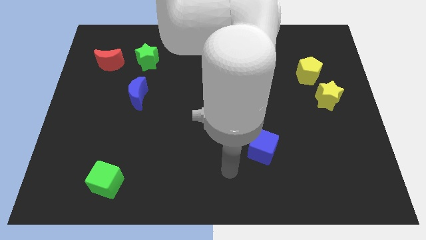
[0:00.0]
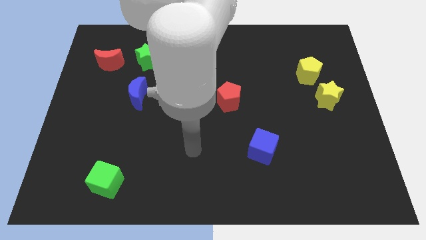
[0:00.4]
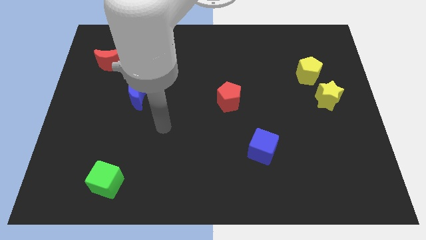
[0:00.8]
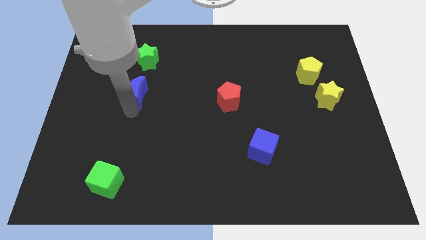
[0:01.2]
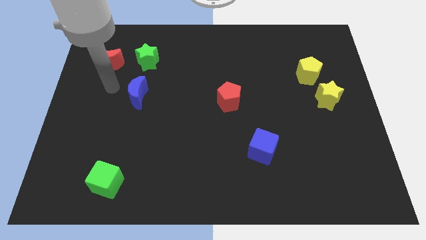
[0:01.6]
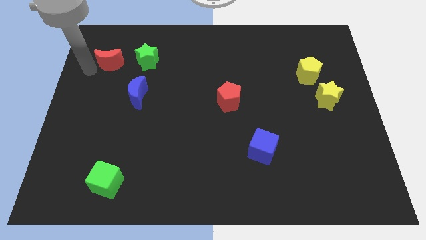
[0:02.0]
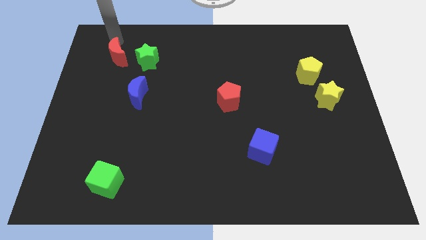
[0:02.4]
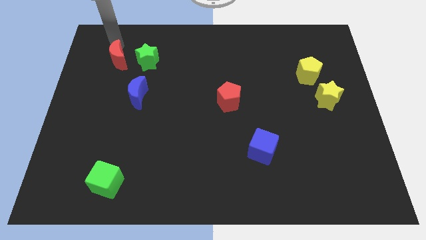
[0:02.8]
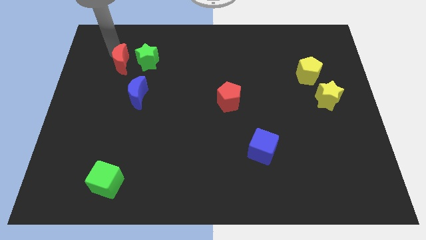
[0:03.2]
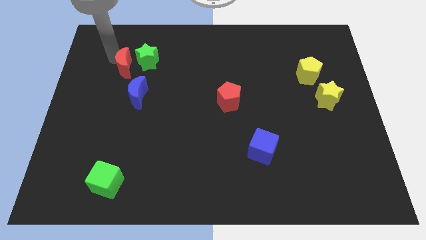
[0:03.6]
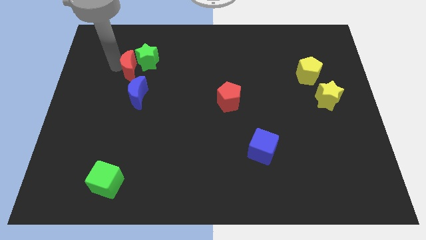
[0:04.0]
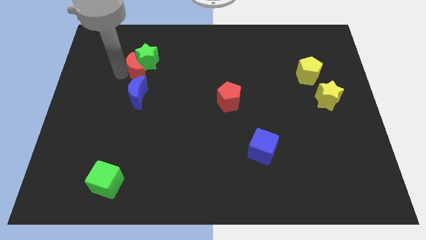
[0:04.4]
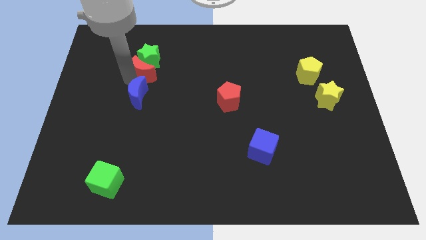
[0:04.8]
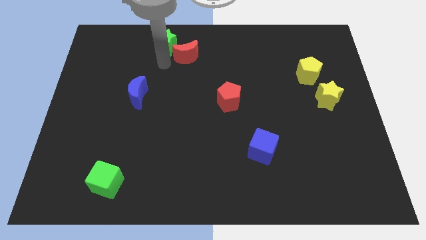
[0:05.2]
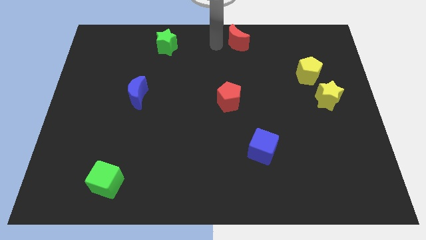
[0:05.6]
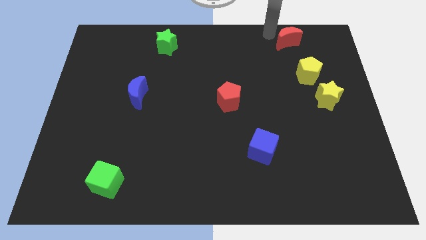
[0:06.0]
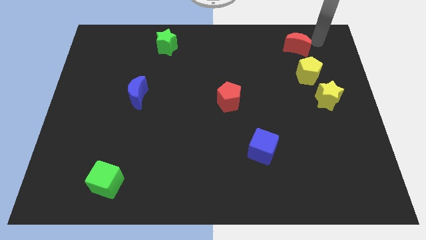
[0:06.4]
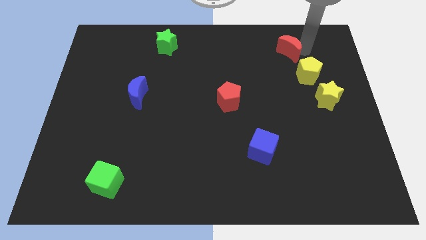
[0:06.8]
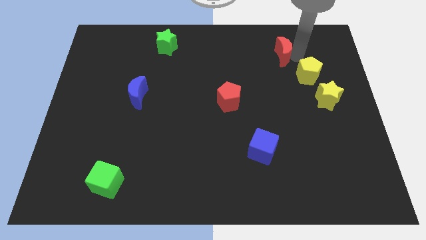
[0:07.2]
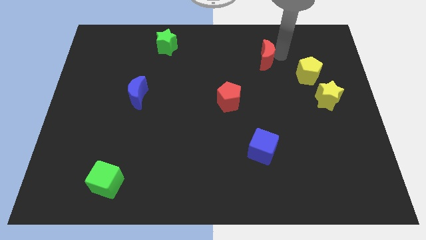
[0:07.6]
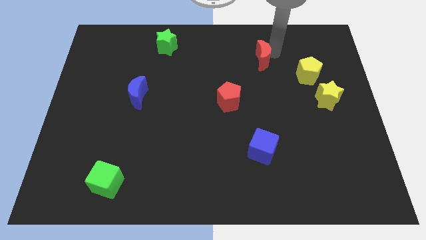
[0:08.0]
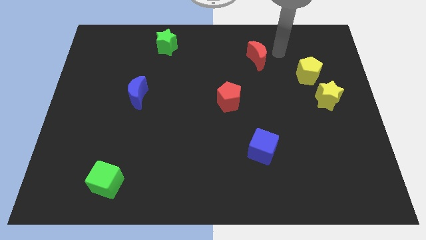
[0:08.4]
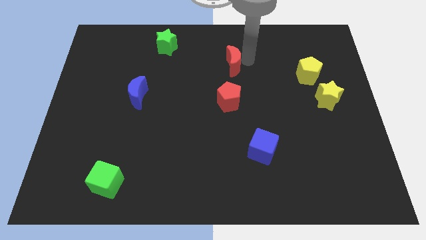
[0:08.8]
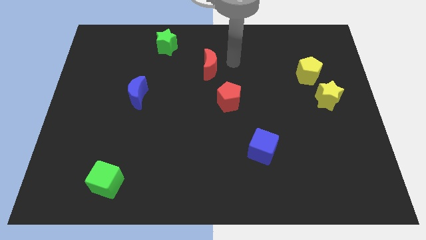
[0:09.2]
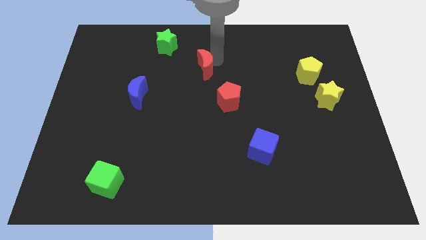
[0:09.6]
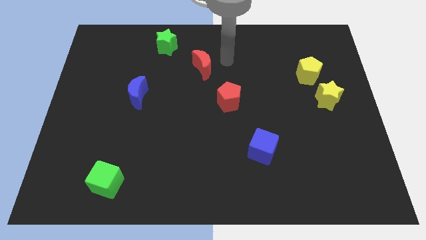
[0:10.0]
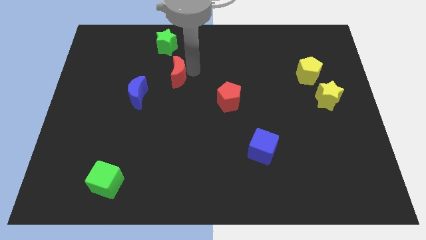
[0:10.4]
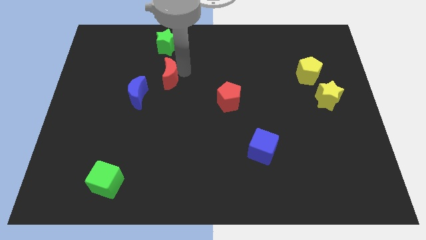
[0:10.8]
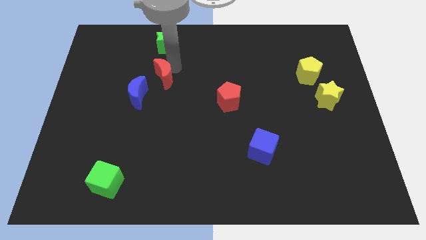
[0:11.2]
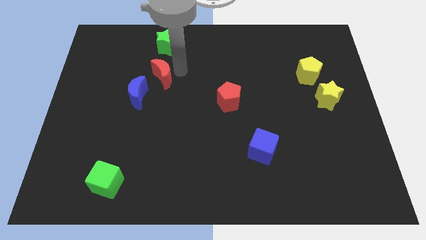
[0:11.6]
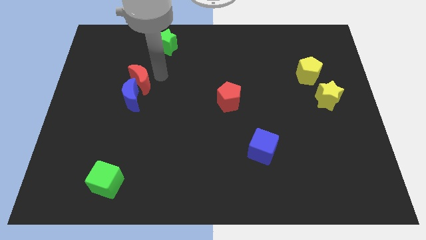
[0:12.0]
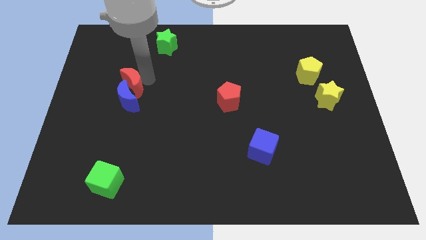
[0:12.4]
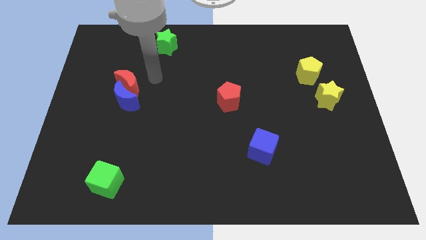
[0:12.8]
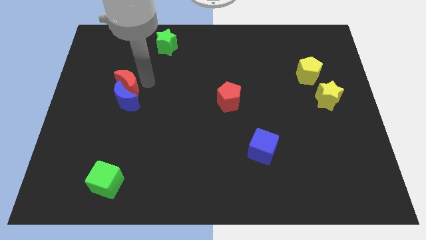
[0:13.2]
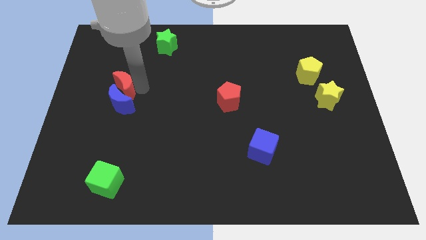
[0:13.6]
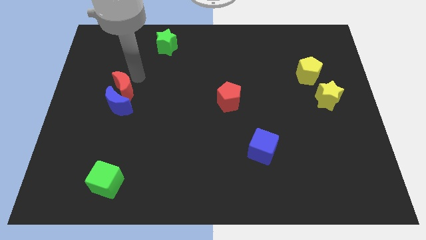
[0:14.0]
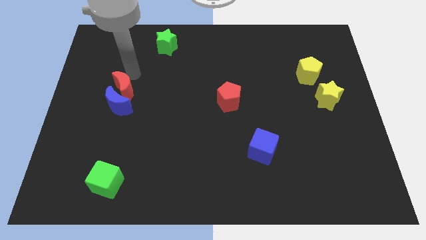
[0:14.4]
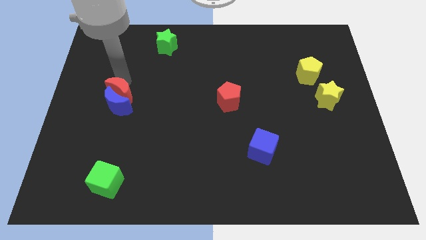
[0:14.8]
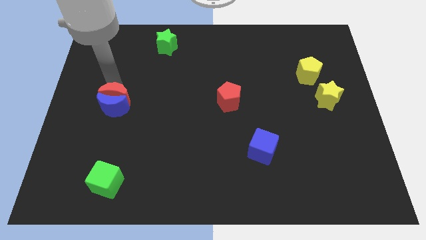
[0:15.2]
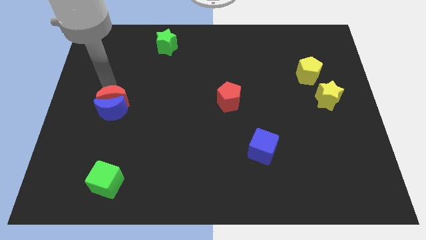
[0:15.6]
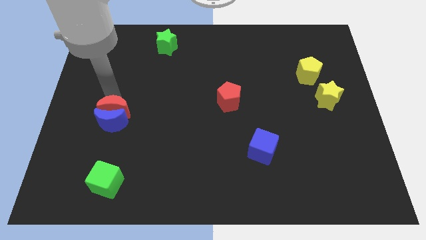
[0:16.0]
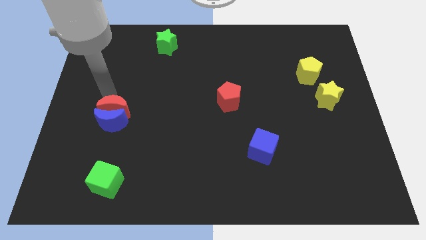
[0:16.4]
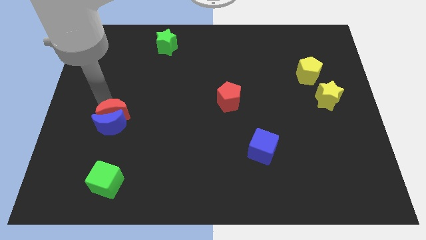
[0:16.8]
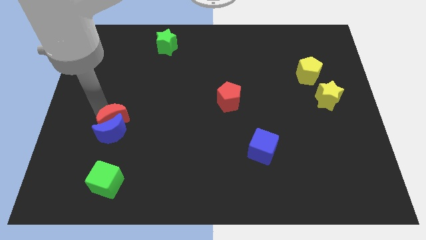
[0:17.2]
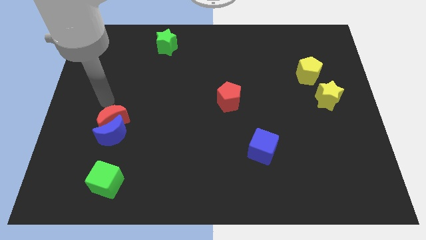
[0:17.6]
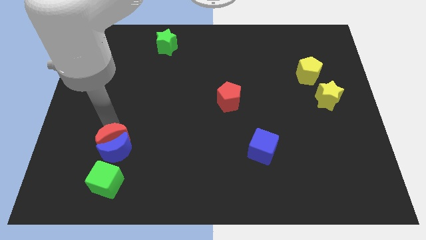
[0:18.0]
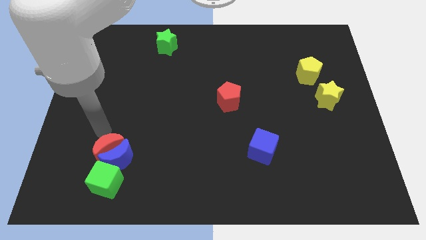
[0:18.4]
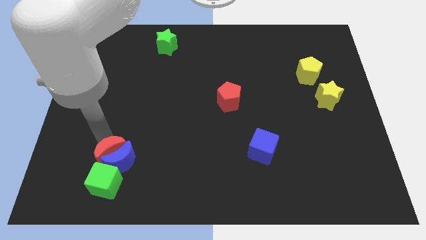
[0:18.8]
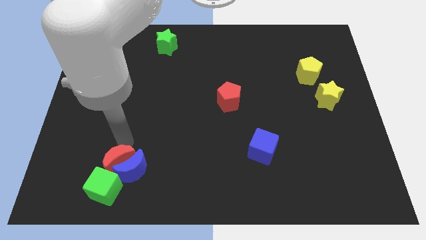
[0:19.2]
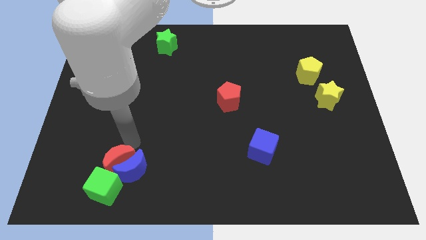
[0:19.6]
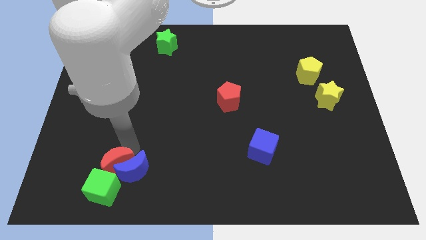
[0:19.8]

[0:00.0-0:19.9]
move the red moon to the green cube

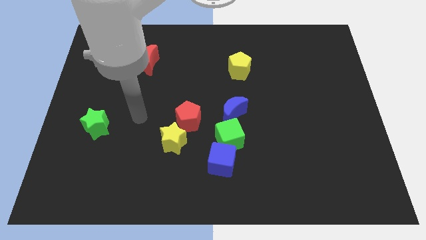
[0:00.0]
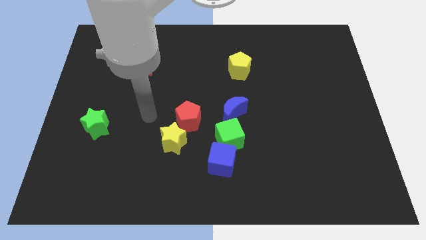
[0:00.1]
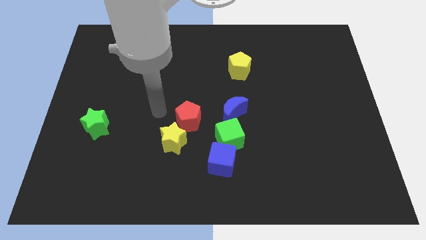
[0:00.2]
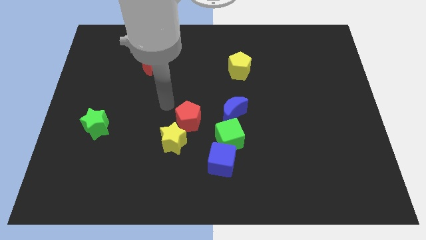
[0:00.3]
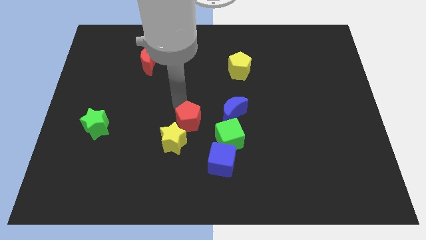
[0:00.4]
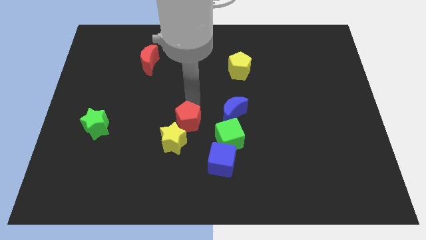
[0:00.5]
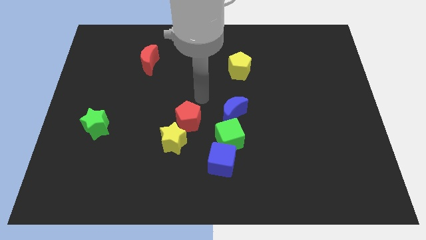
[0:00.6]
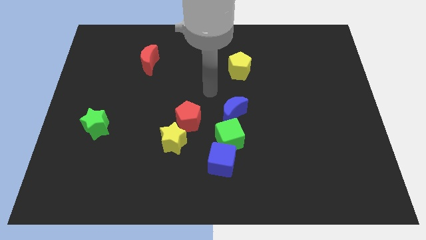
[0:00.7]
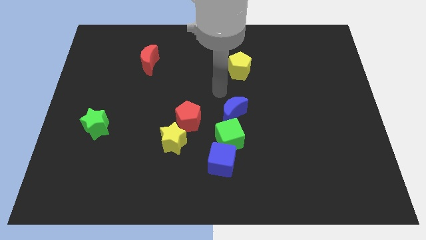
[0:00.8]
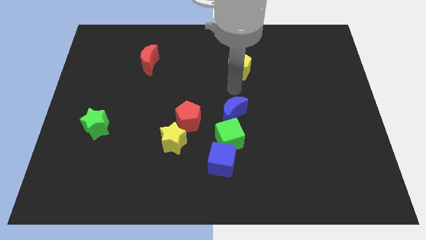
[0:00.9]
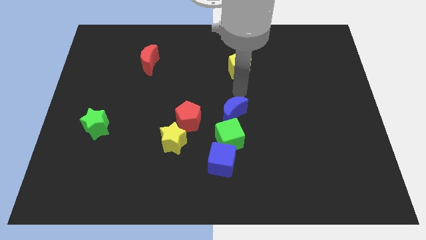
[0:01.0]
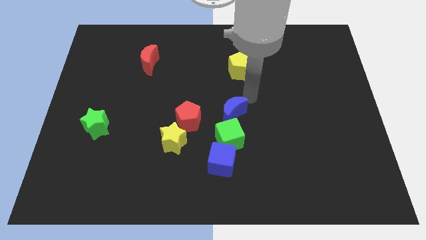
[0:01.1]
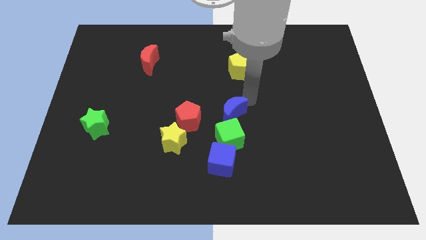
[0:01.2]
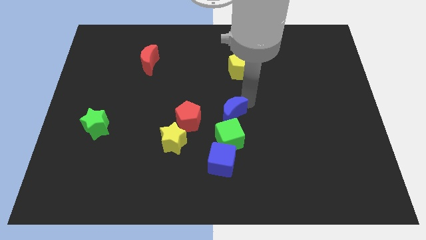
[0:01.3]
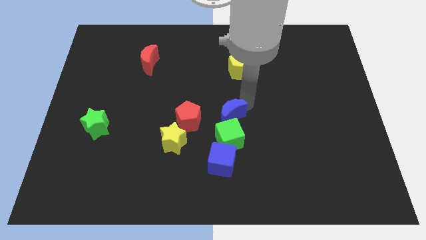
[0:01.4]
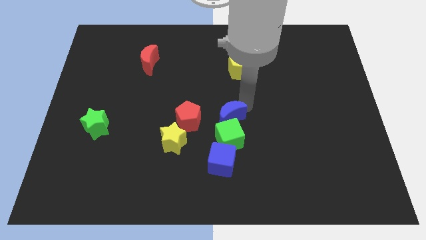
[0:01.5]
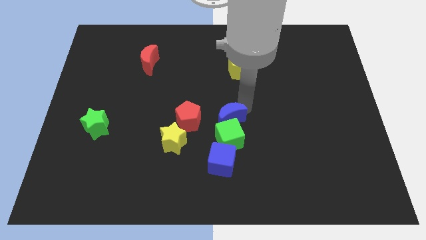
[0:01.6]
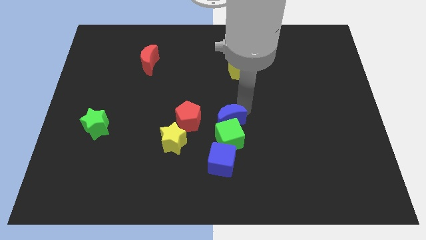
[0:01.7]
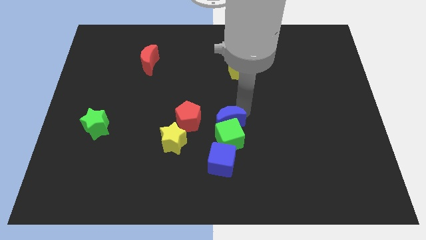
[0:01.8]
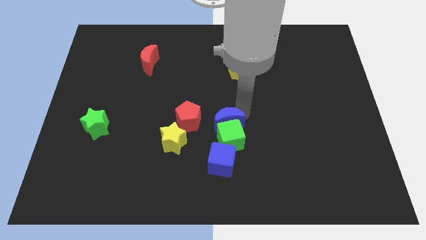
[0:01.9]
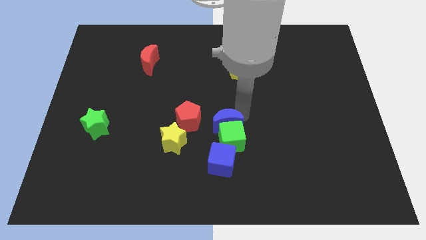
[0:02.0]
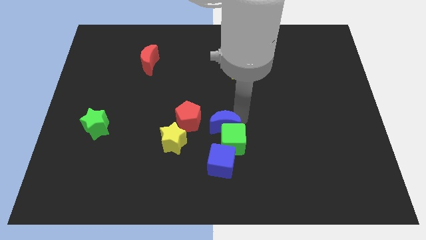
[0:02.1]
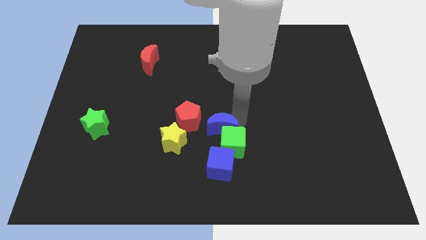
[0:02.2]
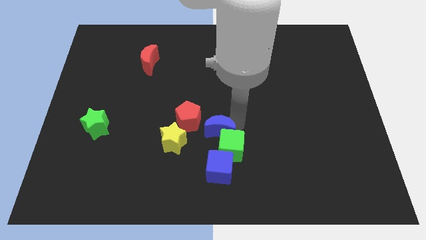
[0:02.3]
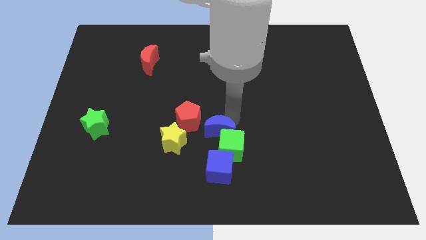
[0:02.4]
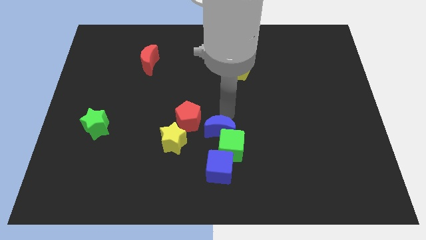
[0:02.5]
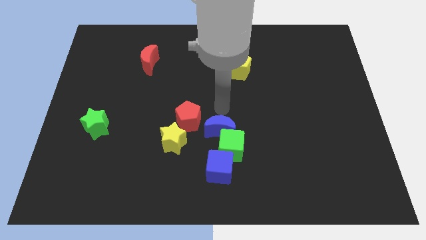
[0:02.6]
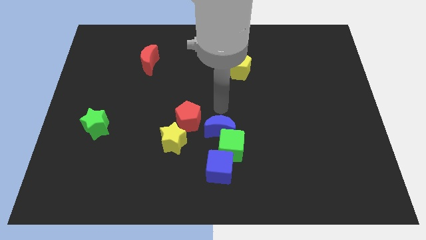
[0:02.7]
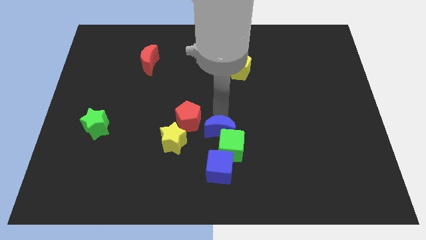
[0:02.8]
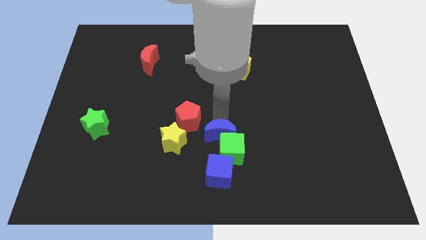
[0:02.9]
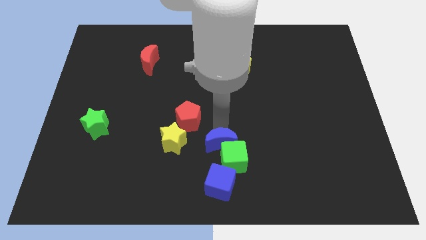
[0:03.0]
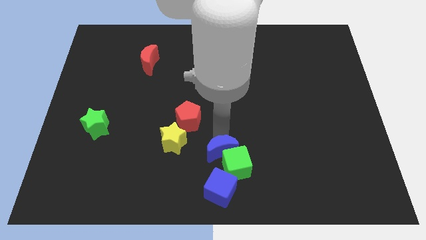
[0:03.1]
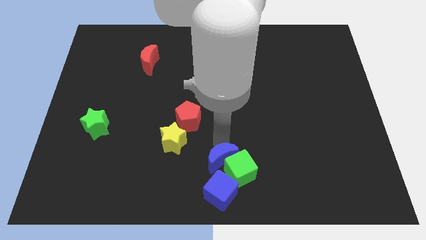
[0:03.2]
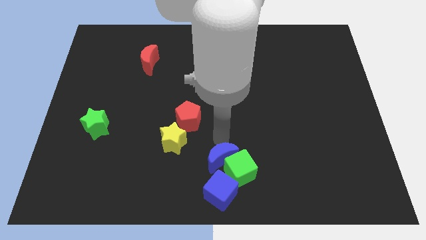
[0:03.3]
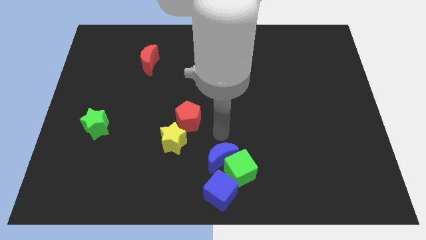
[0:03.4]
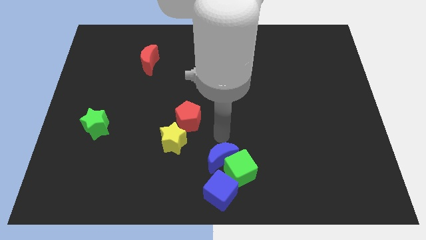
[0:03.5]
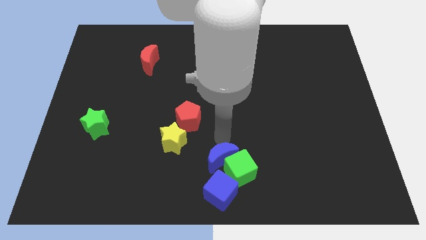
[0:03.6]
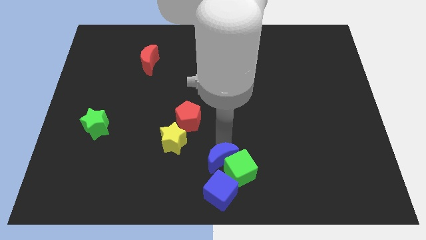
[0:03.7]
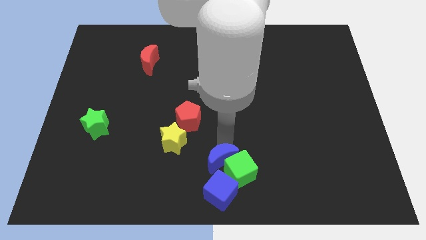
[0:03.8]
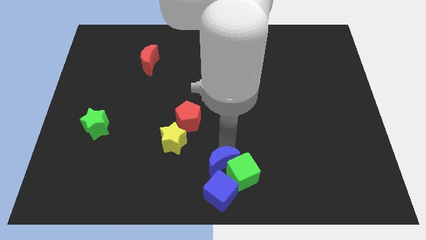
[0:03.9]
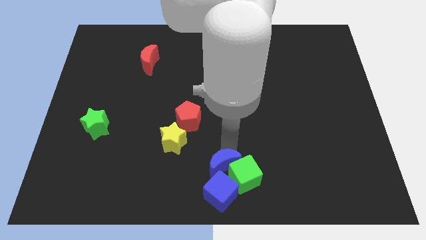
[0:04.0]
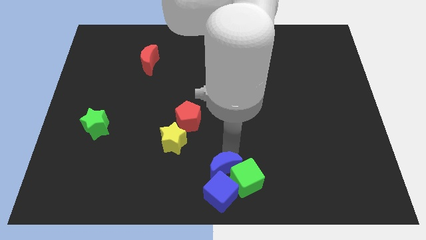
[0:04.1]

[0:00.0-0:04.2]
push the blue moon to the blue cube
